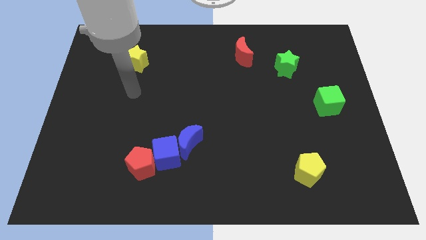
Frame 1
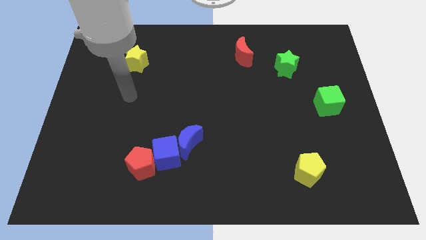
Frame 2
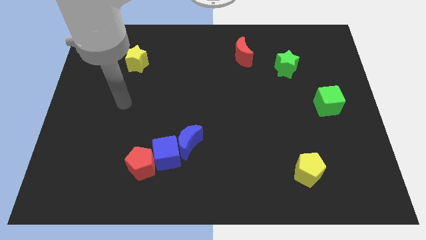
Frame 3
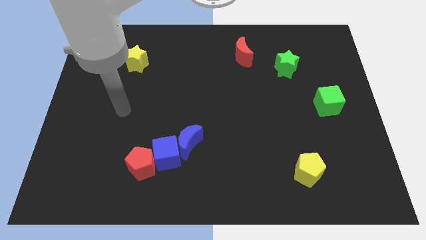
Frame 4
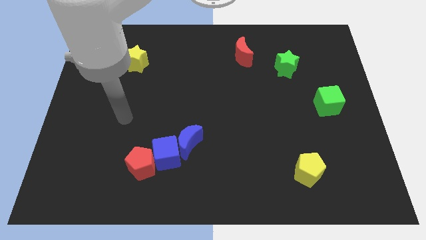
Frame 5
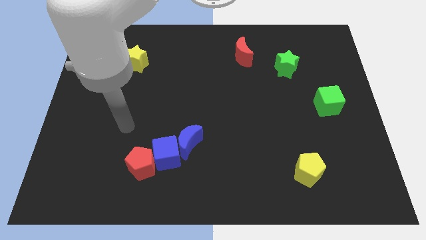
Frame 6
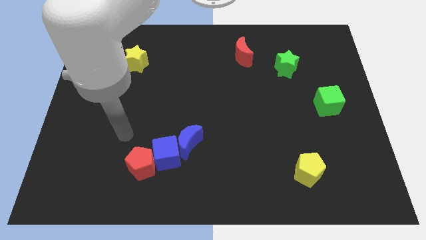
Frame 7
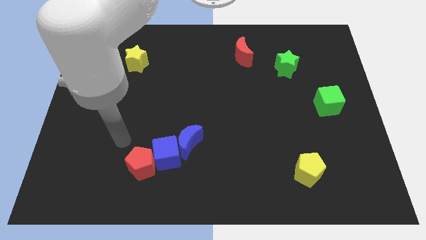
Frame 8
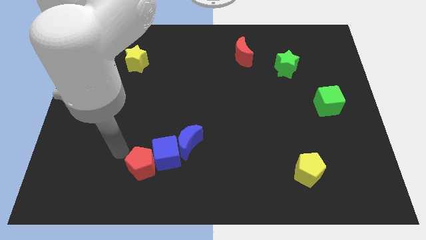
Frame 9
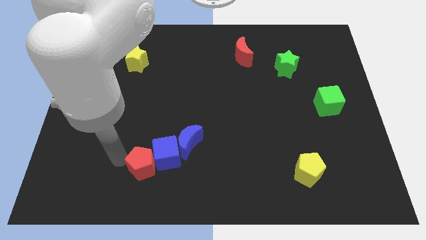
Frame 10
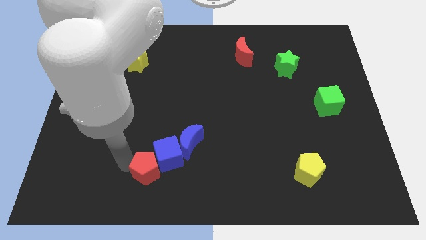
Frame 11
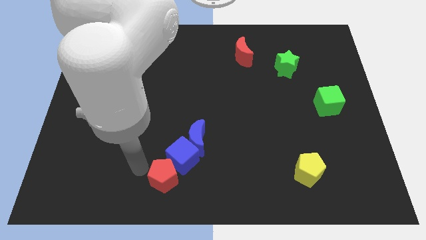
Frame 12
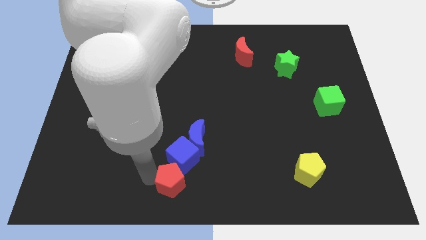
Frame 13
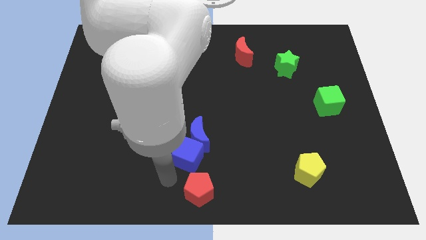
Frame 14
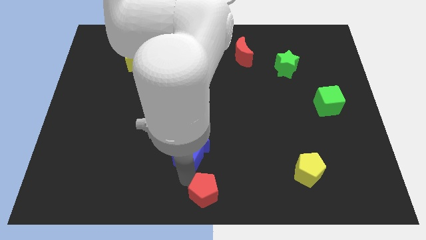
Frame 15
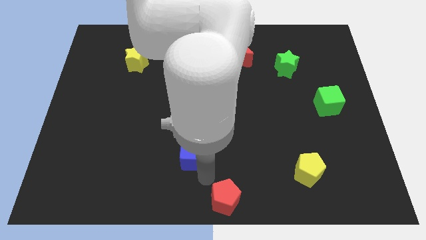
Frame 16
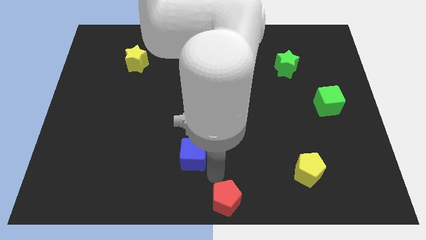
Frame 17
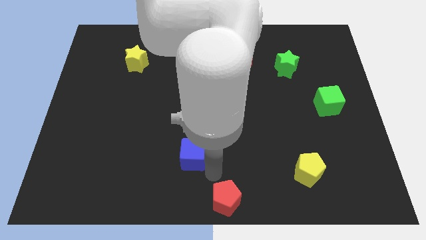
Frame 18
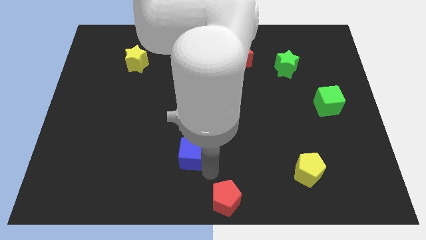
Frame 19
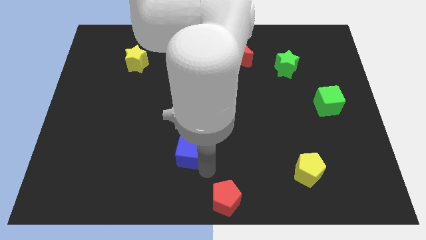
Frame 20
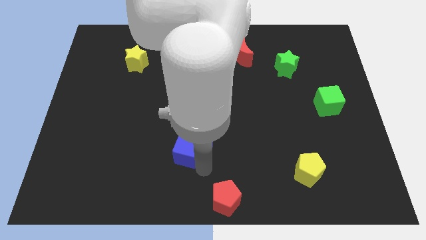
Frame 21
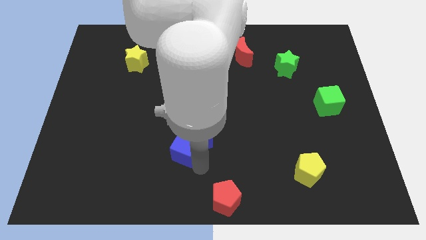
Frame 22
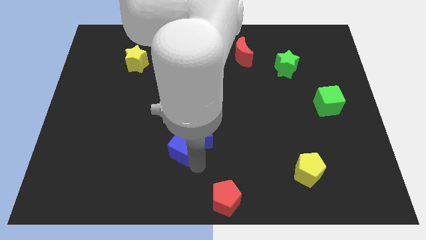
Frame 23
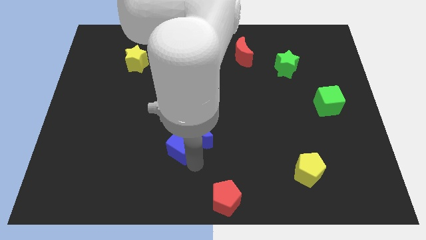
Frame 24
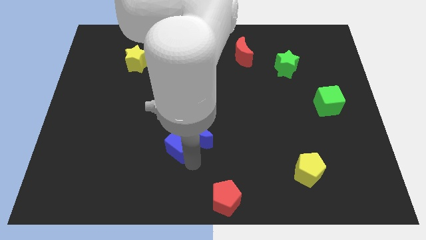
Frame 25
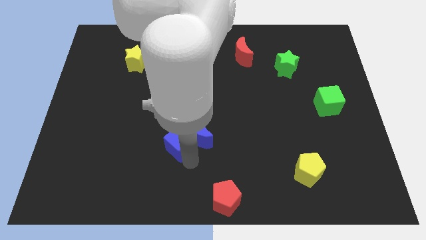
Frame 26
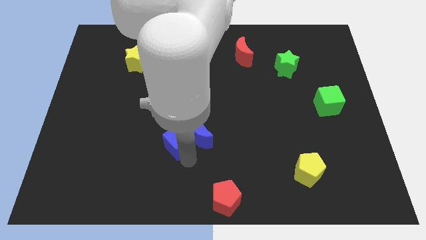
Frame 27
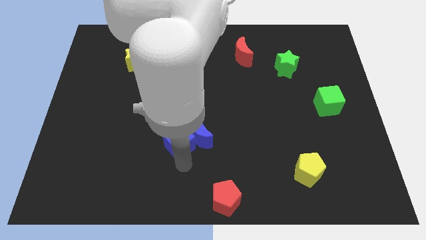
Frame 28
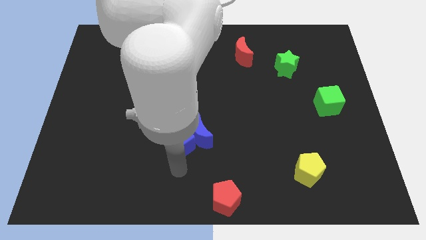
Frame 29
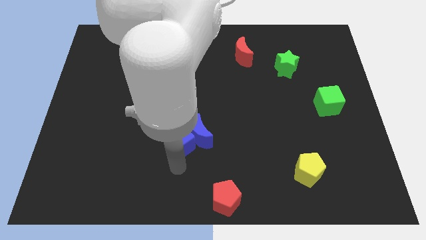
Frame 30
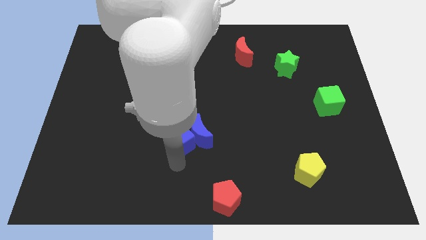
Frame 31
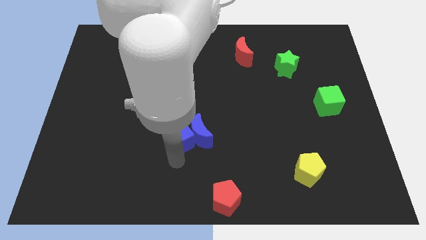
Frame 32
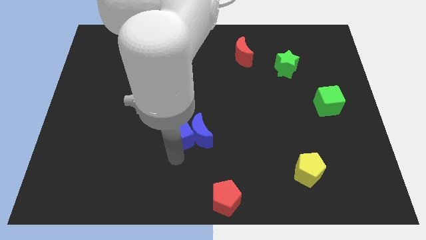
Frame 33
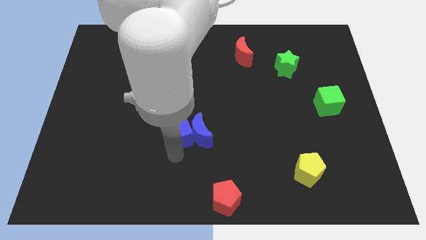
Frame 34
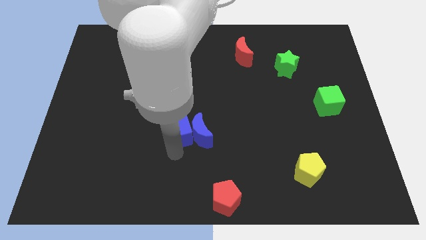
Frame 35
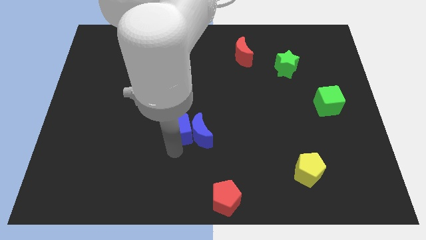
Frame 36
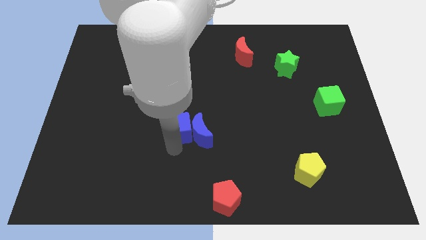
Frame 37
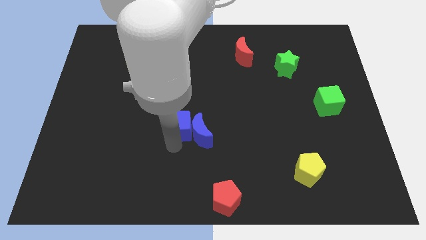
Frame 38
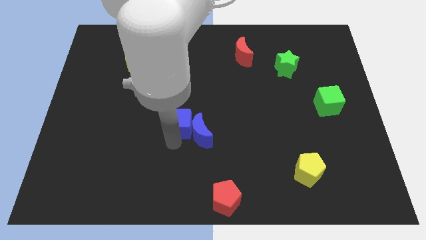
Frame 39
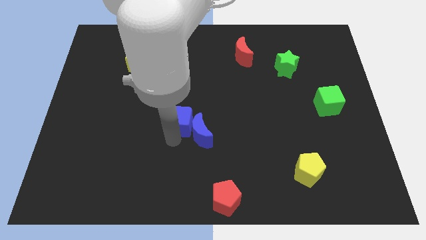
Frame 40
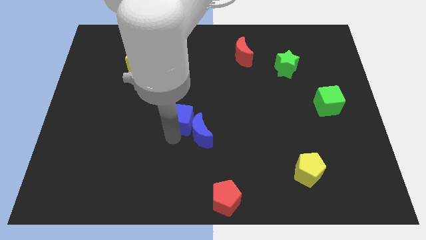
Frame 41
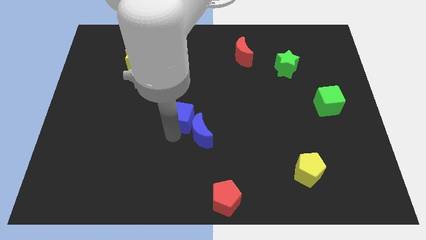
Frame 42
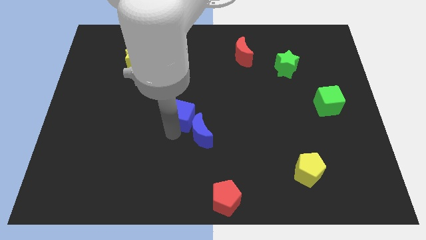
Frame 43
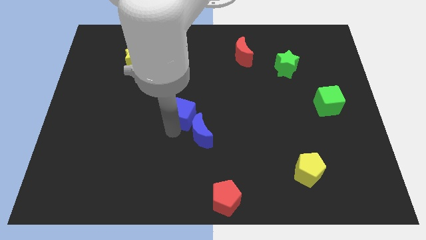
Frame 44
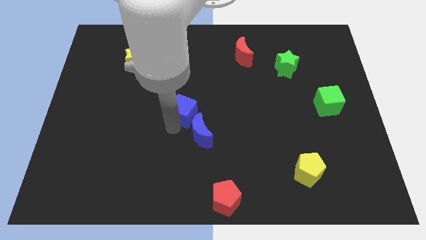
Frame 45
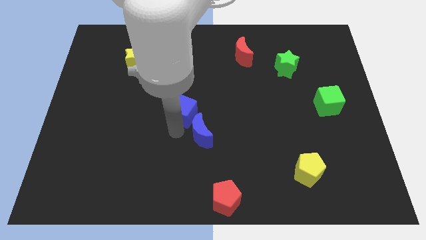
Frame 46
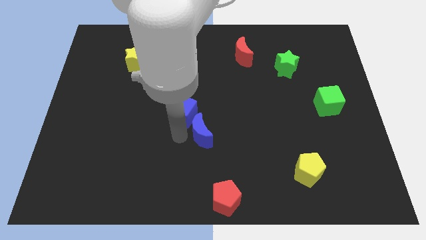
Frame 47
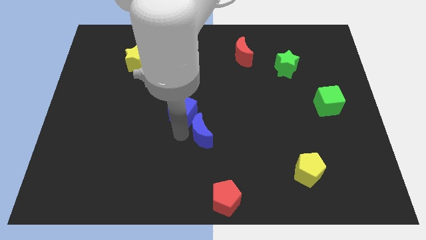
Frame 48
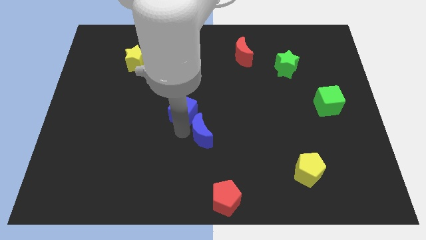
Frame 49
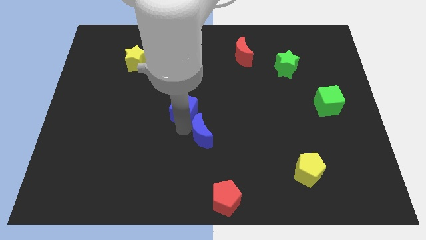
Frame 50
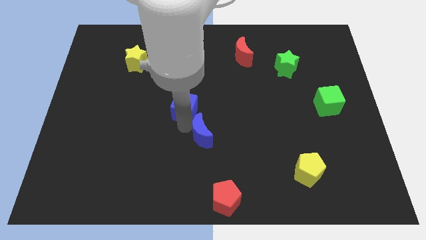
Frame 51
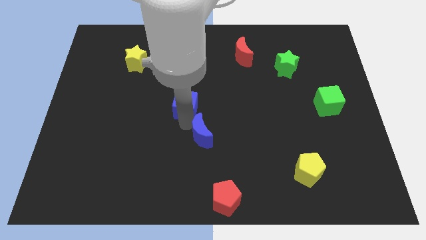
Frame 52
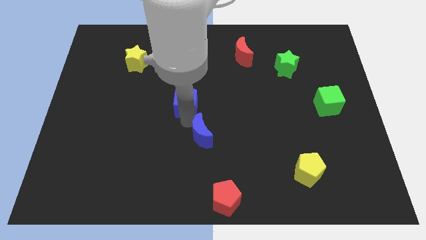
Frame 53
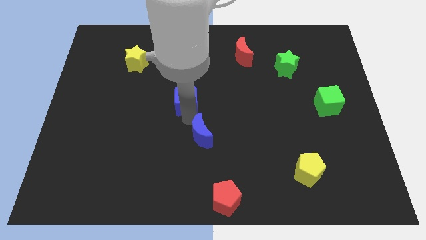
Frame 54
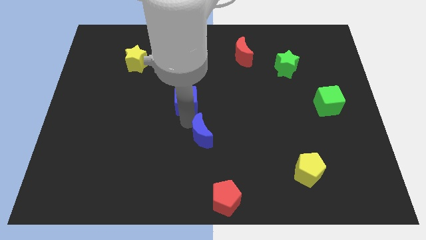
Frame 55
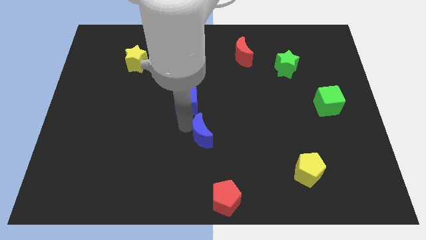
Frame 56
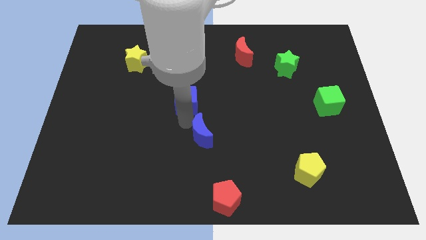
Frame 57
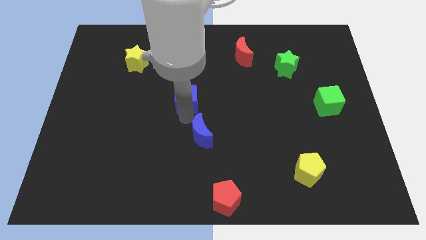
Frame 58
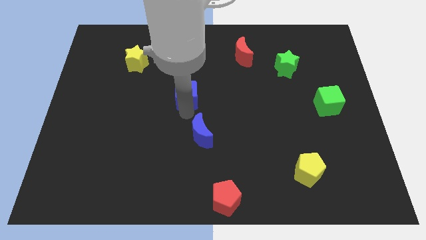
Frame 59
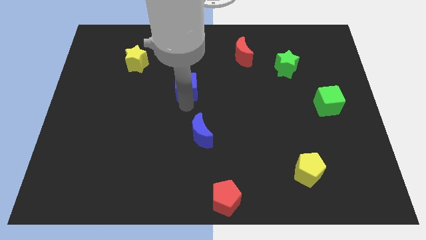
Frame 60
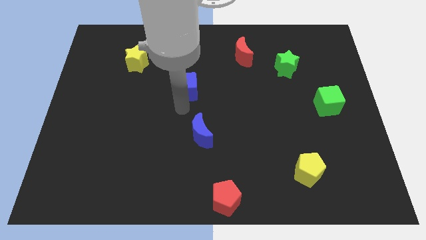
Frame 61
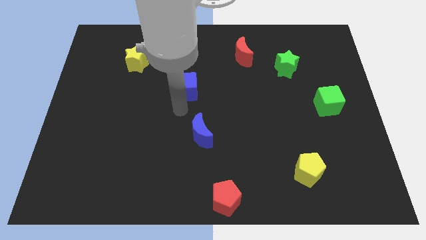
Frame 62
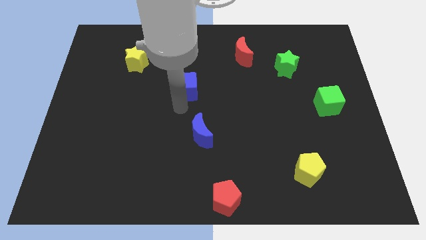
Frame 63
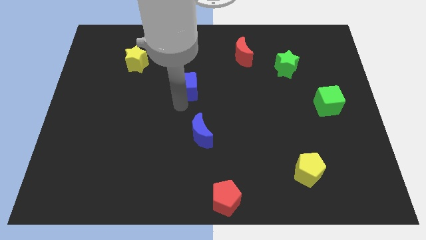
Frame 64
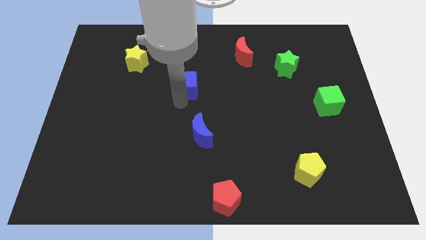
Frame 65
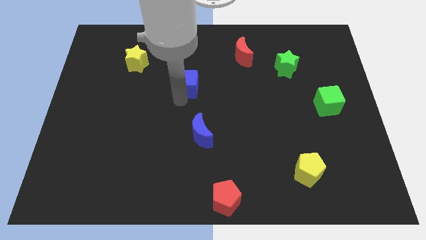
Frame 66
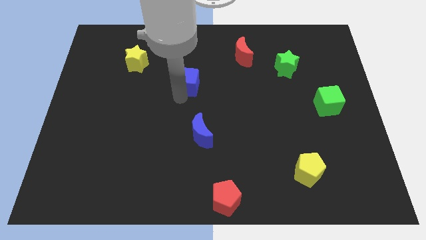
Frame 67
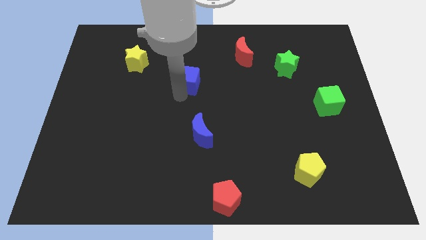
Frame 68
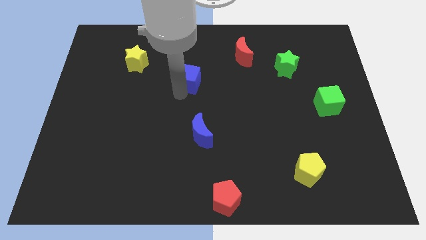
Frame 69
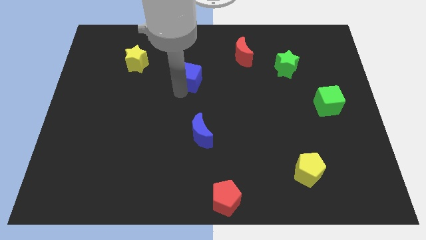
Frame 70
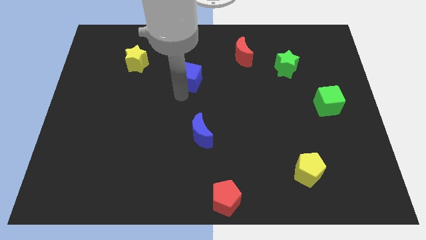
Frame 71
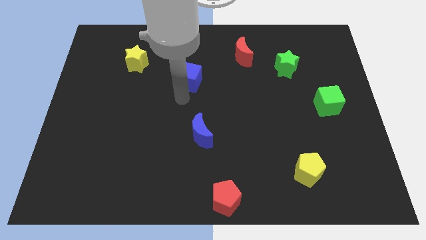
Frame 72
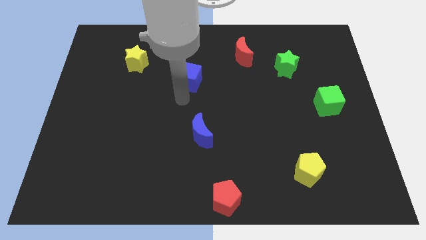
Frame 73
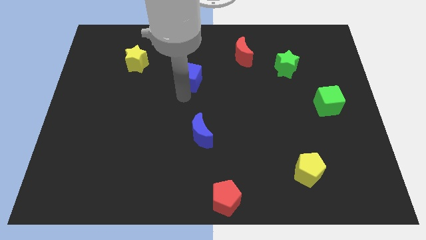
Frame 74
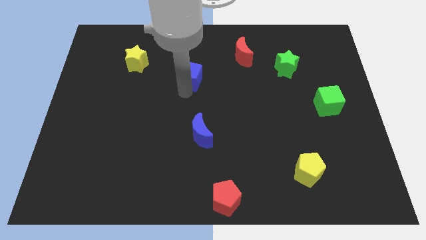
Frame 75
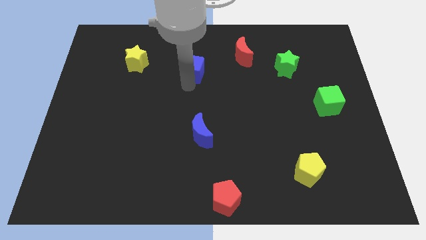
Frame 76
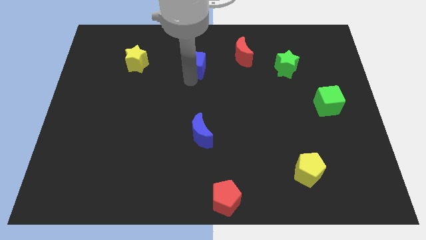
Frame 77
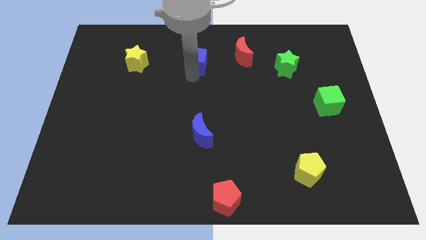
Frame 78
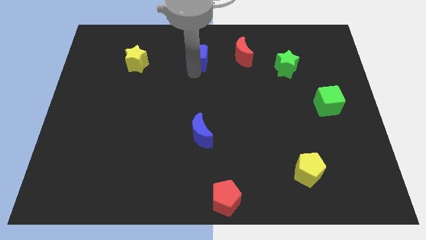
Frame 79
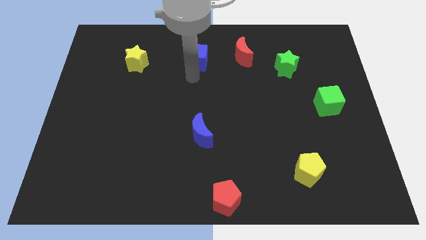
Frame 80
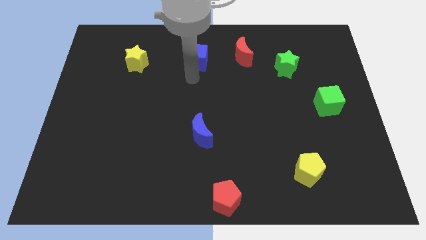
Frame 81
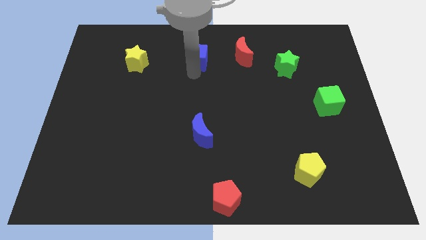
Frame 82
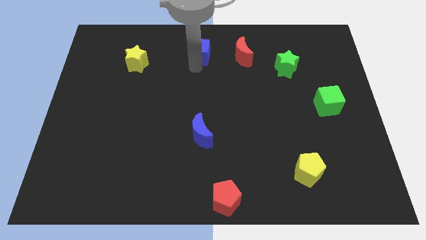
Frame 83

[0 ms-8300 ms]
put the blue cube to the top side
